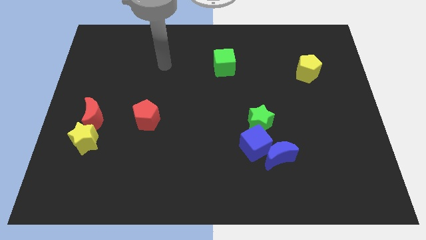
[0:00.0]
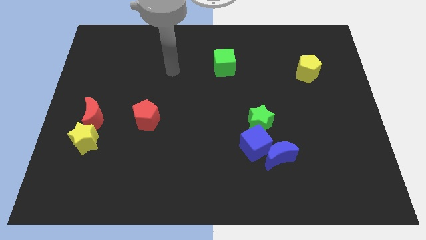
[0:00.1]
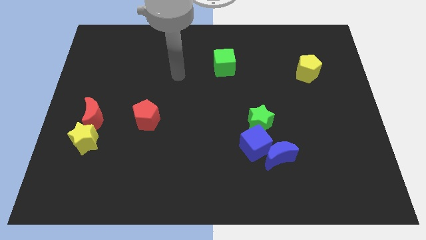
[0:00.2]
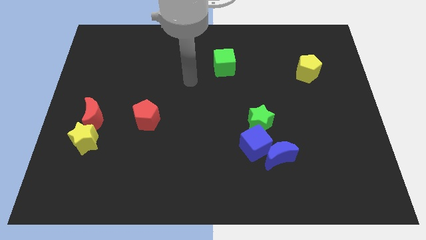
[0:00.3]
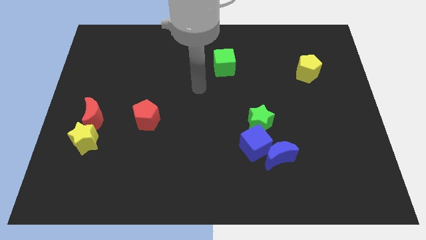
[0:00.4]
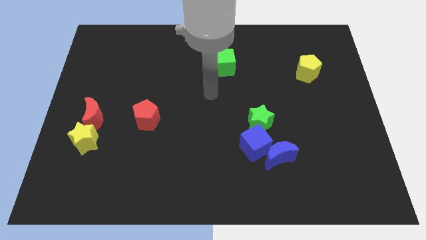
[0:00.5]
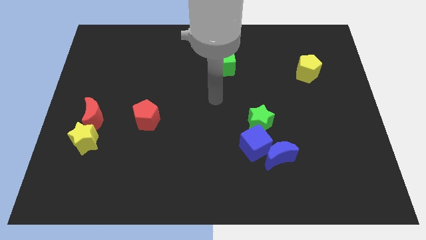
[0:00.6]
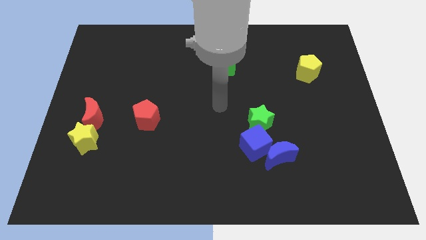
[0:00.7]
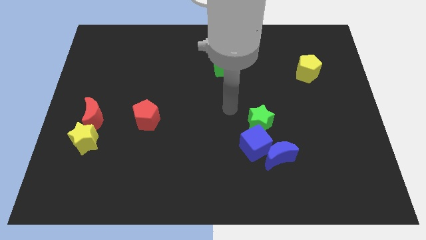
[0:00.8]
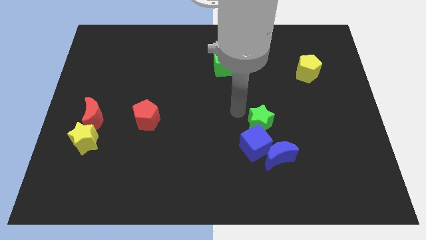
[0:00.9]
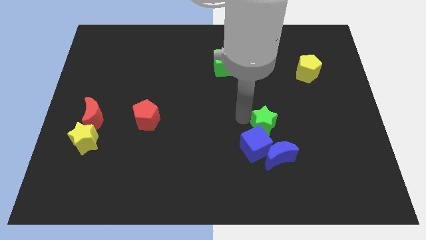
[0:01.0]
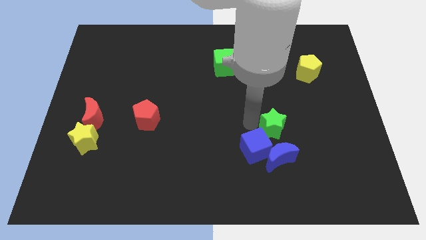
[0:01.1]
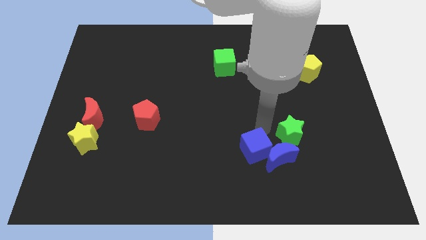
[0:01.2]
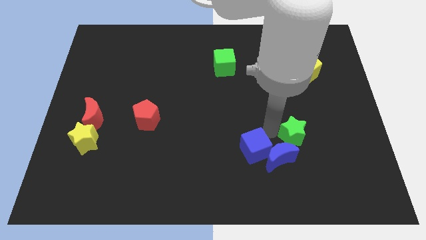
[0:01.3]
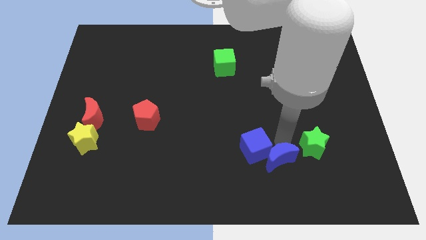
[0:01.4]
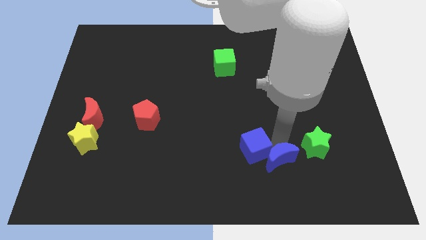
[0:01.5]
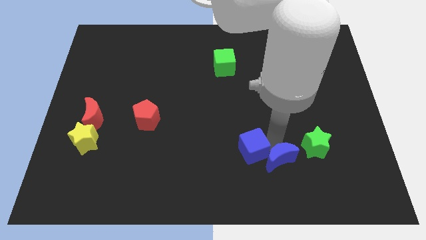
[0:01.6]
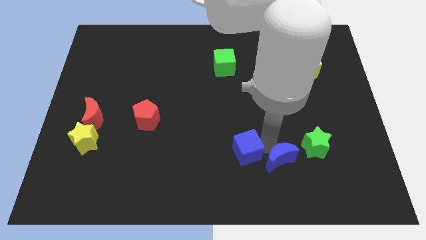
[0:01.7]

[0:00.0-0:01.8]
separate the blue cube from the blue moon and green star

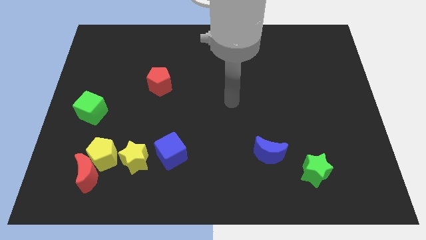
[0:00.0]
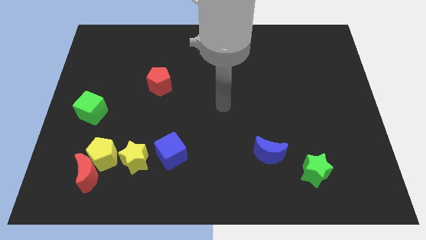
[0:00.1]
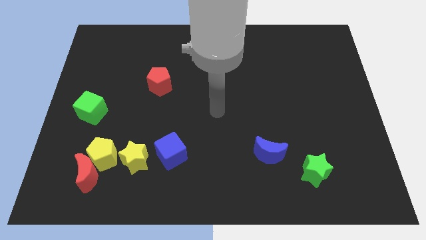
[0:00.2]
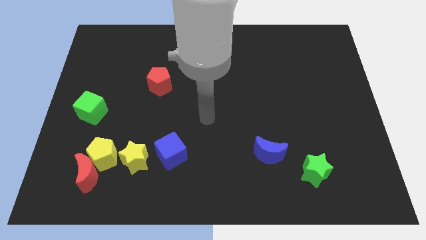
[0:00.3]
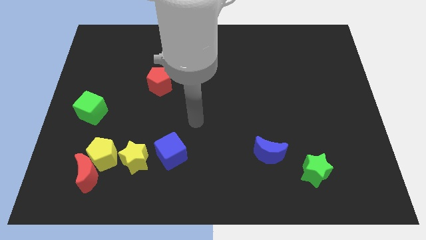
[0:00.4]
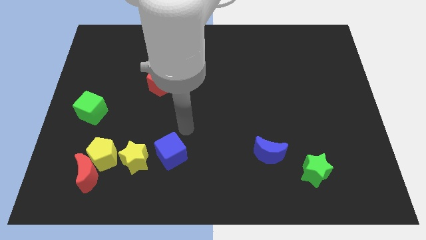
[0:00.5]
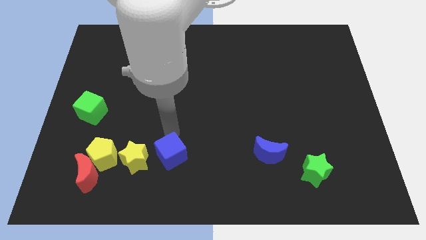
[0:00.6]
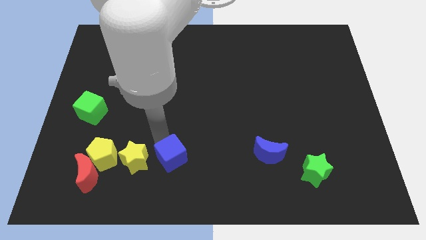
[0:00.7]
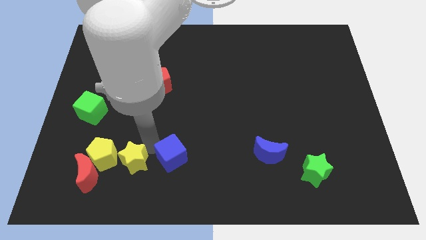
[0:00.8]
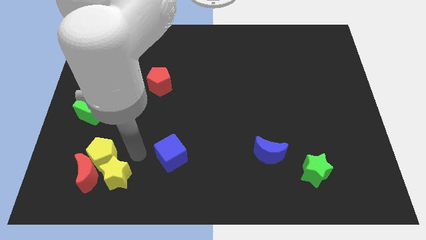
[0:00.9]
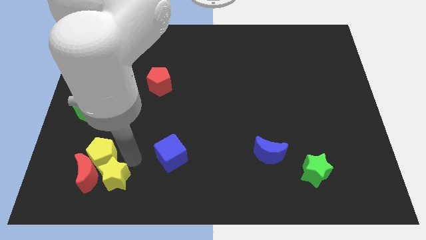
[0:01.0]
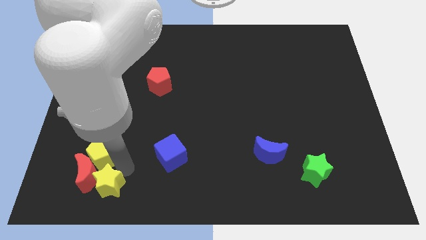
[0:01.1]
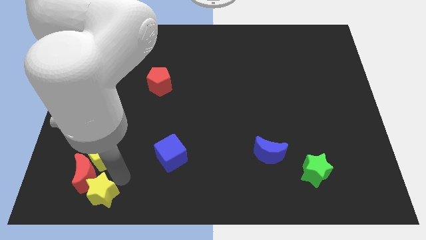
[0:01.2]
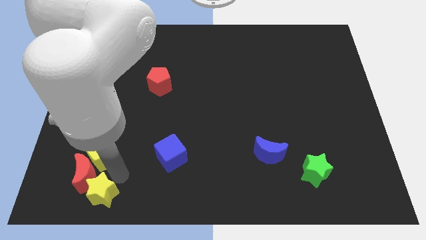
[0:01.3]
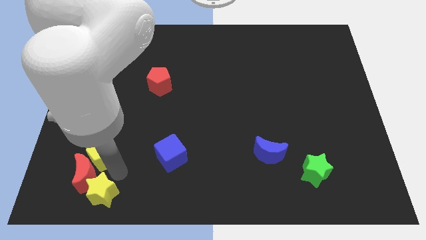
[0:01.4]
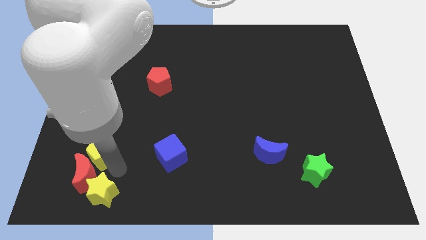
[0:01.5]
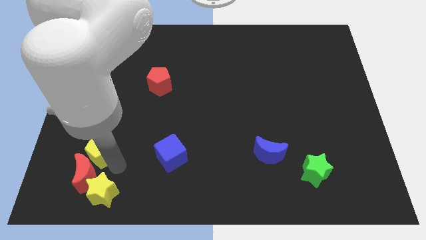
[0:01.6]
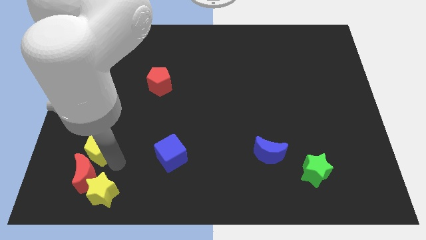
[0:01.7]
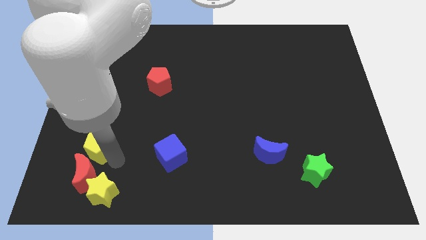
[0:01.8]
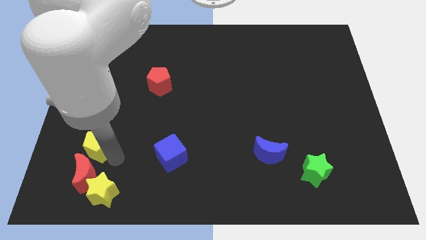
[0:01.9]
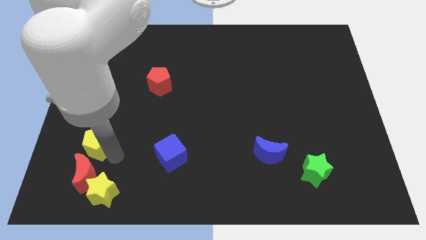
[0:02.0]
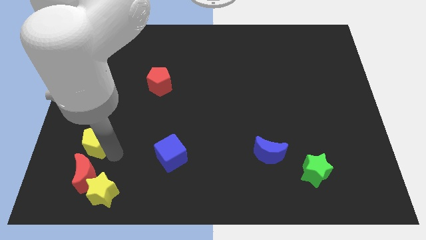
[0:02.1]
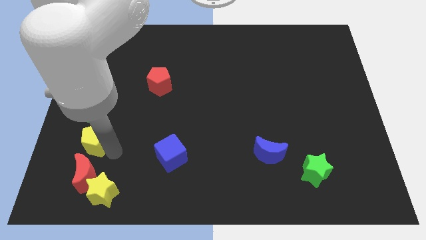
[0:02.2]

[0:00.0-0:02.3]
separate the yellow pentagon from the red moon and yellow star

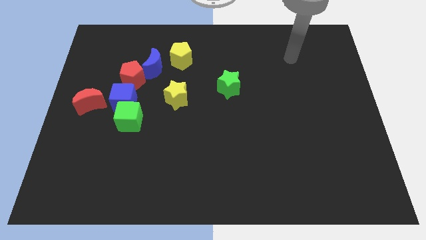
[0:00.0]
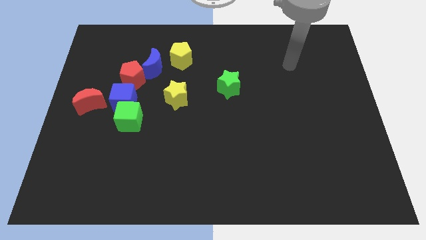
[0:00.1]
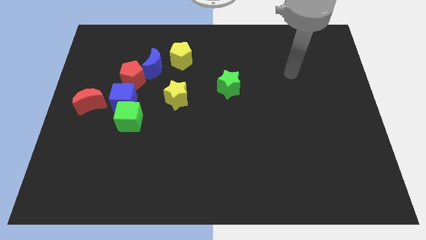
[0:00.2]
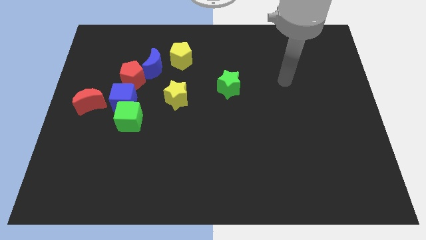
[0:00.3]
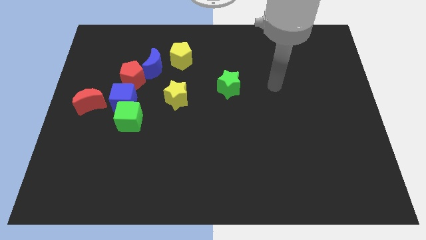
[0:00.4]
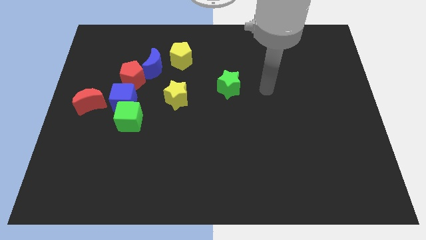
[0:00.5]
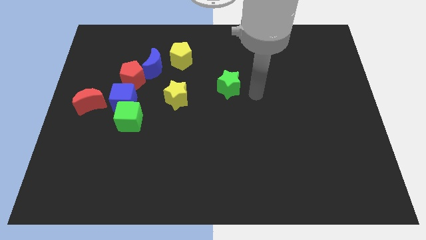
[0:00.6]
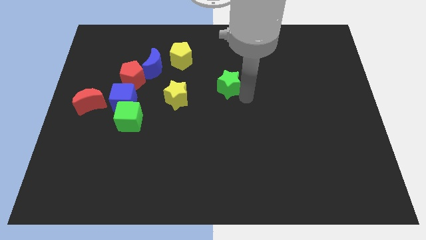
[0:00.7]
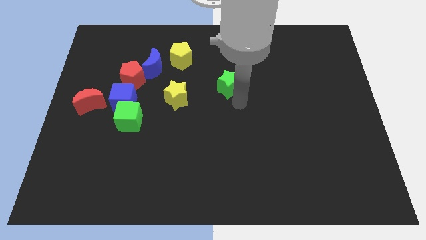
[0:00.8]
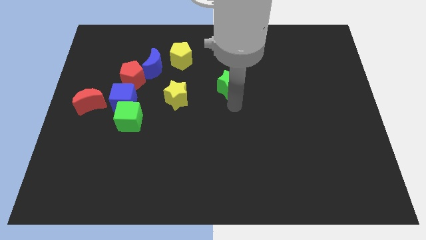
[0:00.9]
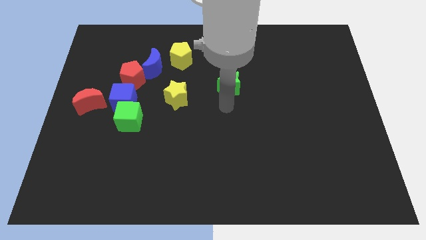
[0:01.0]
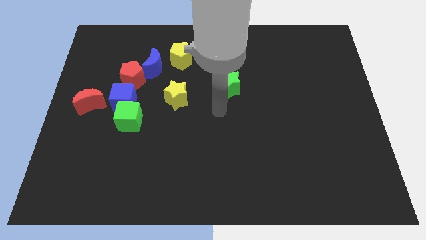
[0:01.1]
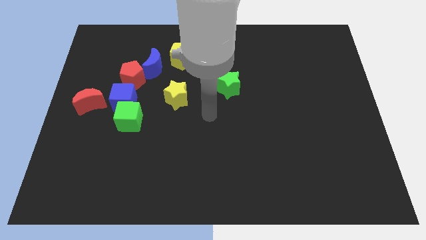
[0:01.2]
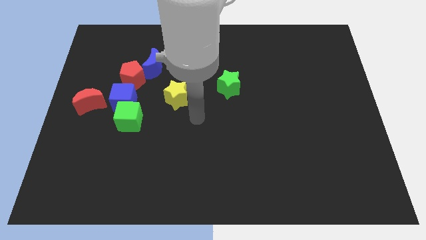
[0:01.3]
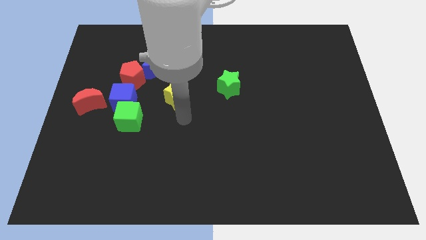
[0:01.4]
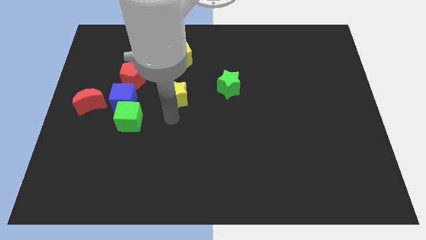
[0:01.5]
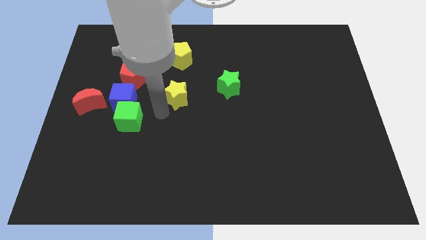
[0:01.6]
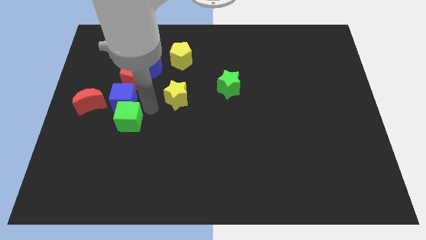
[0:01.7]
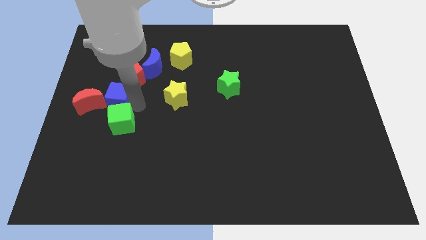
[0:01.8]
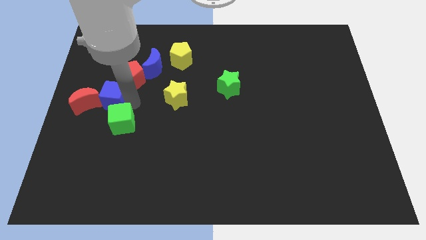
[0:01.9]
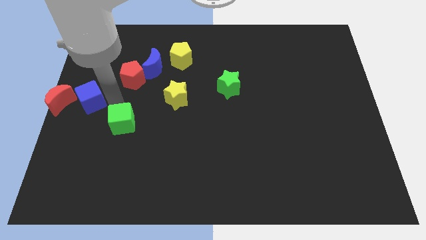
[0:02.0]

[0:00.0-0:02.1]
pull the green cube apart from the blue cube

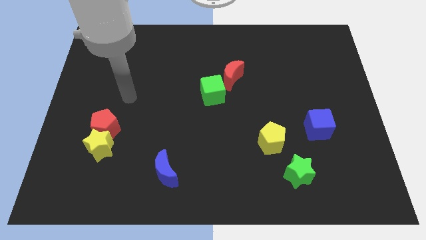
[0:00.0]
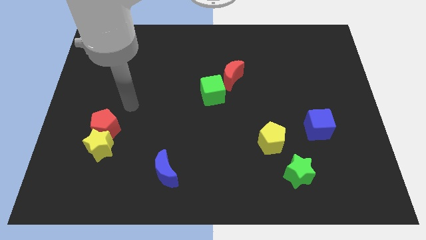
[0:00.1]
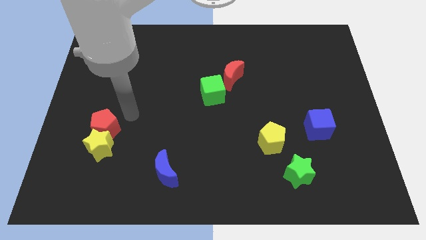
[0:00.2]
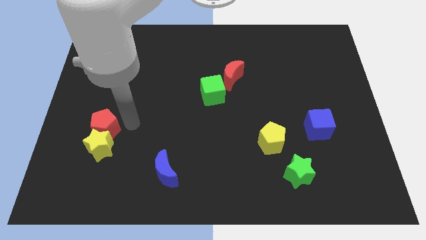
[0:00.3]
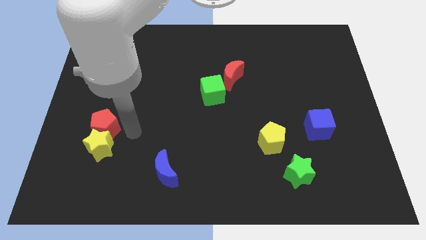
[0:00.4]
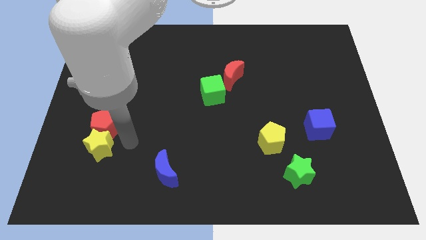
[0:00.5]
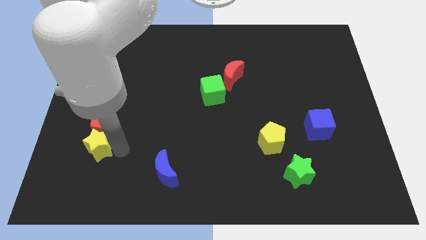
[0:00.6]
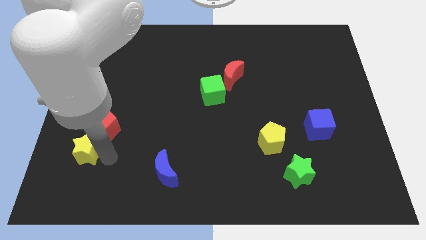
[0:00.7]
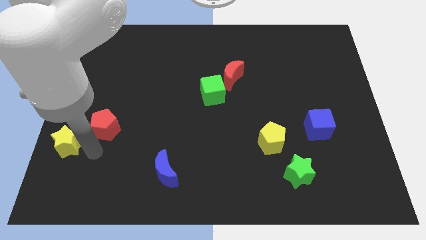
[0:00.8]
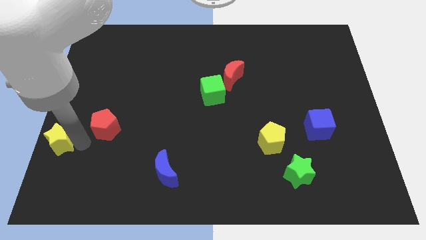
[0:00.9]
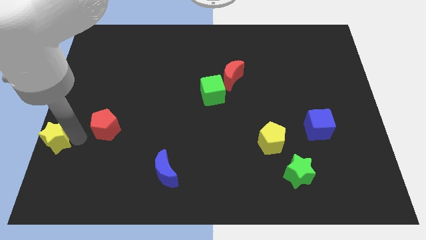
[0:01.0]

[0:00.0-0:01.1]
pull the red pentagon apart from the yellow star

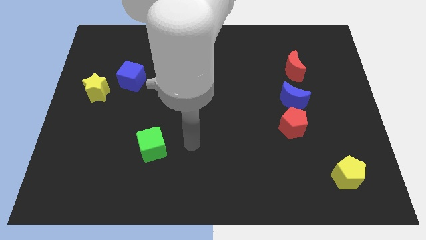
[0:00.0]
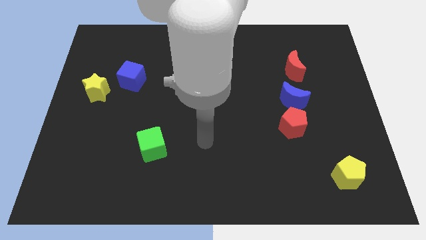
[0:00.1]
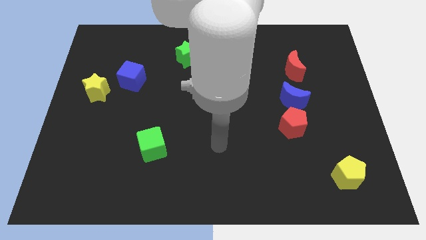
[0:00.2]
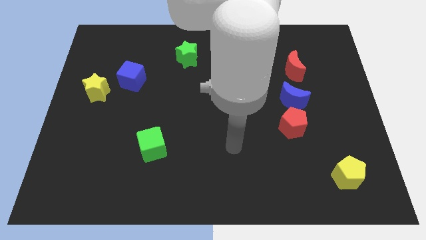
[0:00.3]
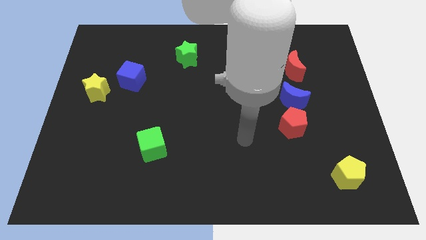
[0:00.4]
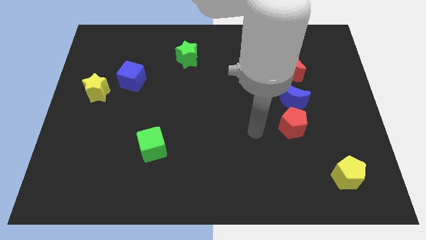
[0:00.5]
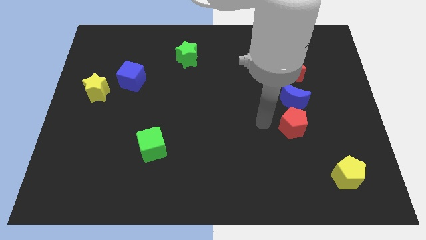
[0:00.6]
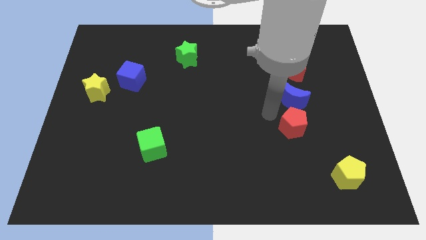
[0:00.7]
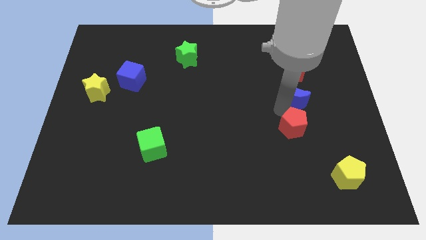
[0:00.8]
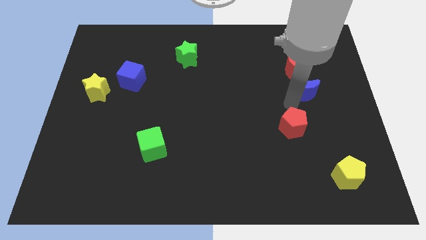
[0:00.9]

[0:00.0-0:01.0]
pull the red pentagon apart from the blue moon

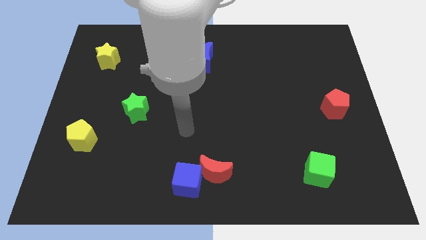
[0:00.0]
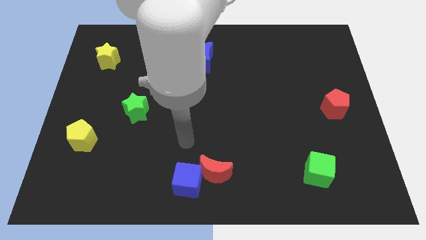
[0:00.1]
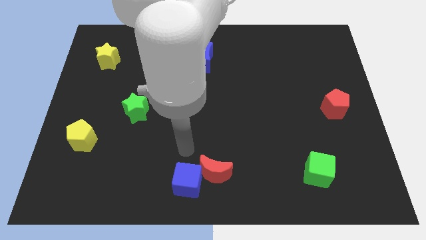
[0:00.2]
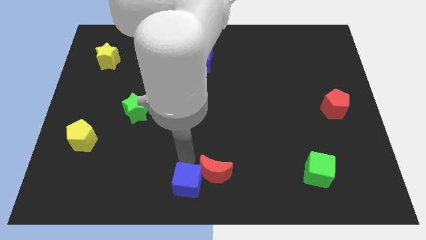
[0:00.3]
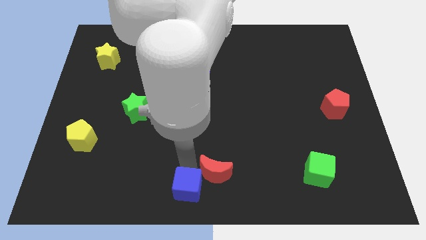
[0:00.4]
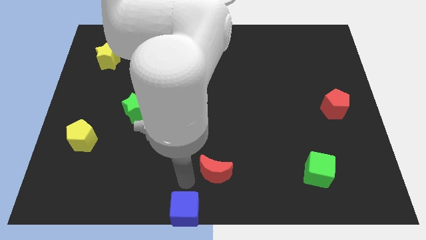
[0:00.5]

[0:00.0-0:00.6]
separate the red moon from the blue cube

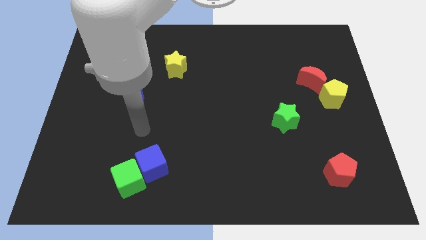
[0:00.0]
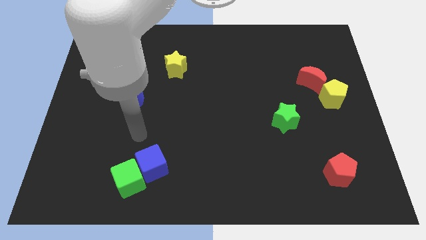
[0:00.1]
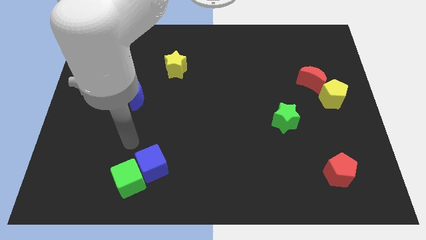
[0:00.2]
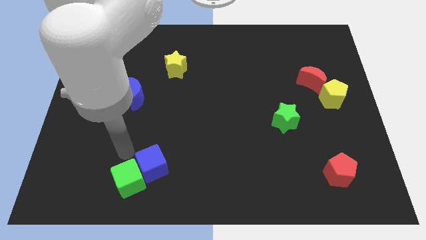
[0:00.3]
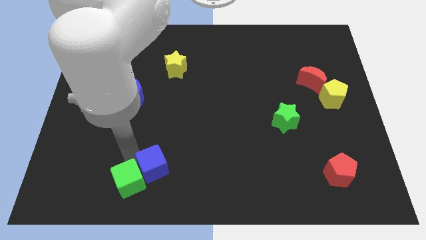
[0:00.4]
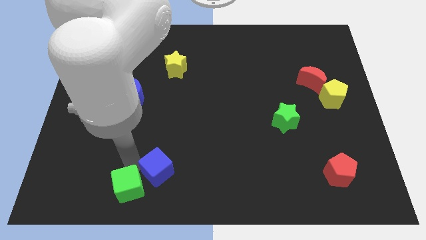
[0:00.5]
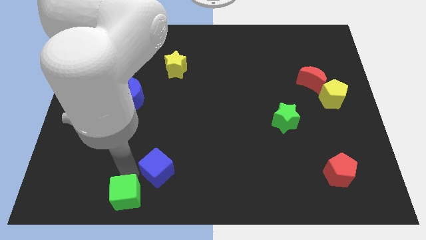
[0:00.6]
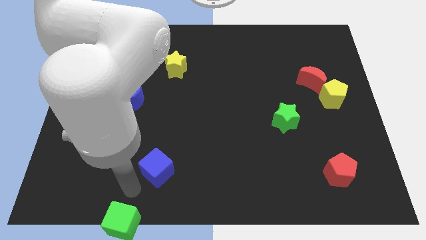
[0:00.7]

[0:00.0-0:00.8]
pull the blue cube apart from the green cube
